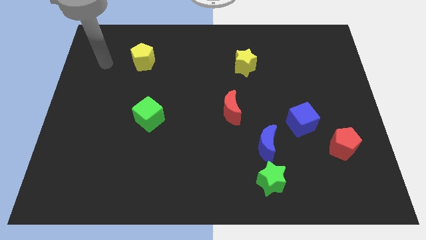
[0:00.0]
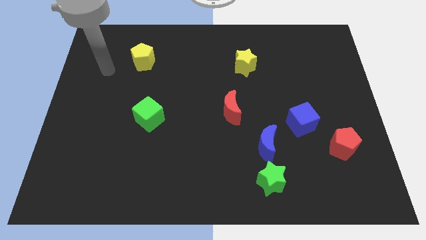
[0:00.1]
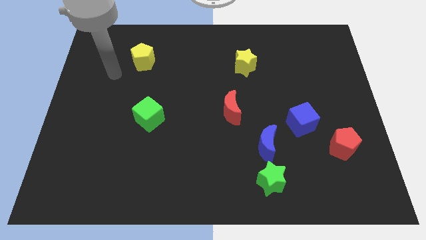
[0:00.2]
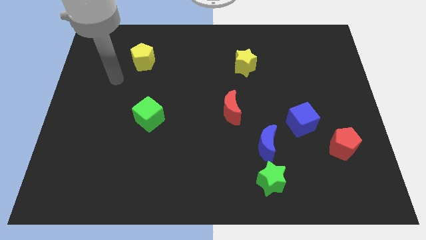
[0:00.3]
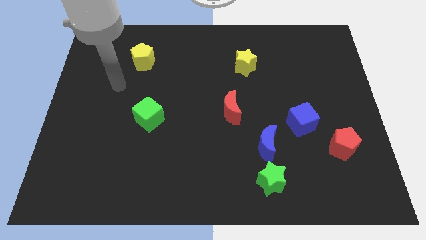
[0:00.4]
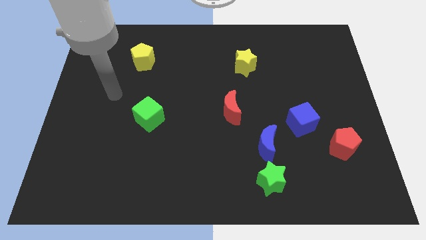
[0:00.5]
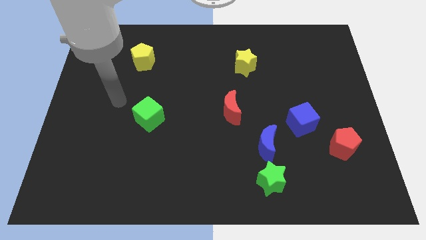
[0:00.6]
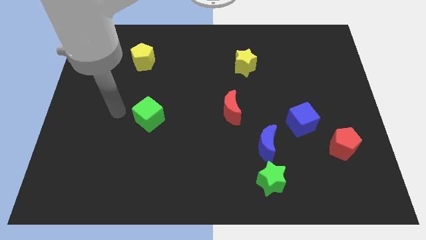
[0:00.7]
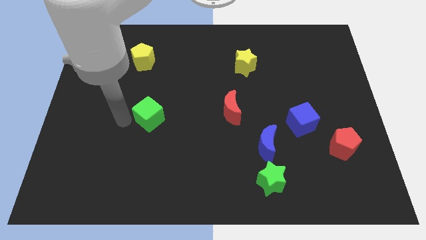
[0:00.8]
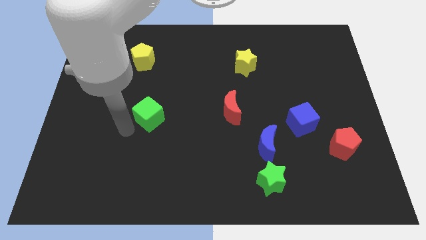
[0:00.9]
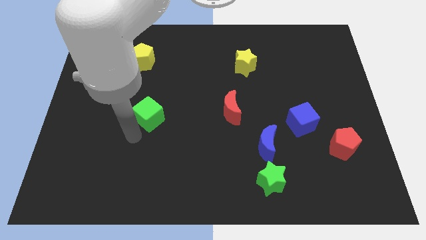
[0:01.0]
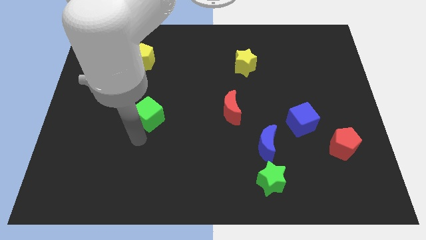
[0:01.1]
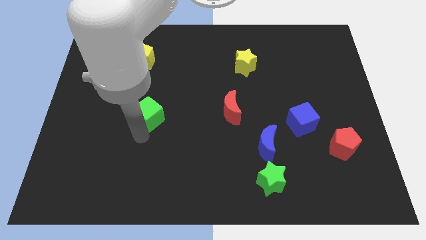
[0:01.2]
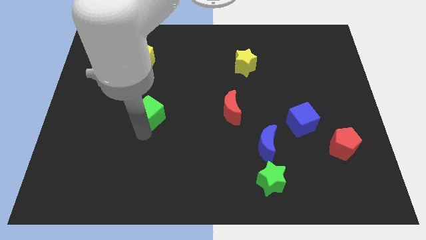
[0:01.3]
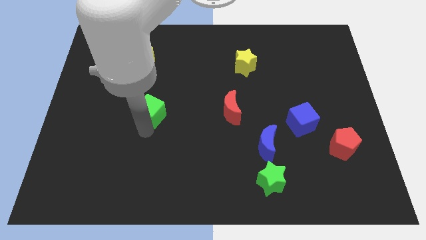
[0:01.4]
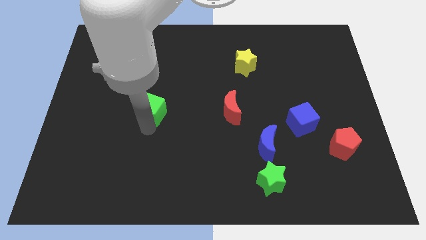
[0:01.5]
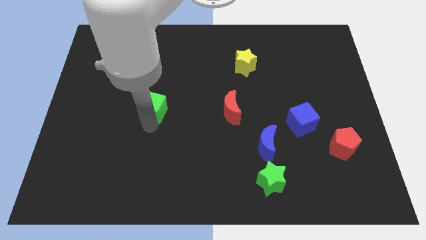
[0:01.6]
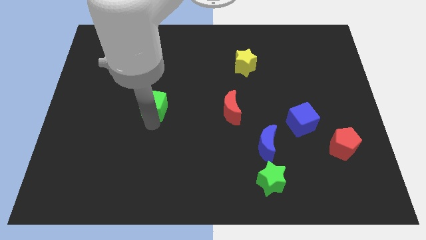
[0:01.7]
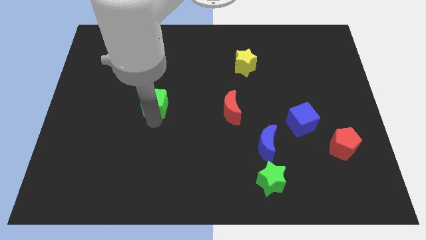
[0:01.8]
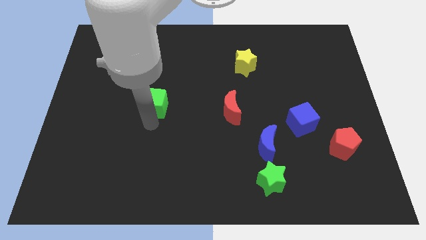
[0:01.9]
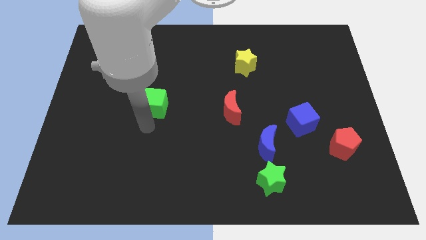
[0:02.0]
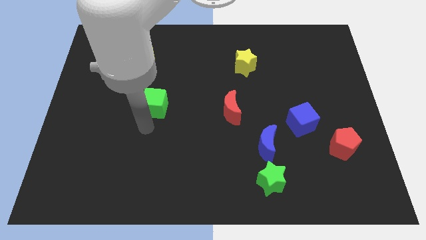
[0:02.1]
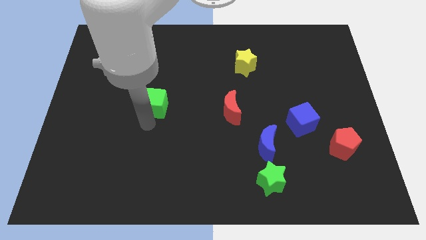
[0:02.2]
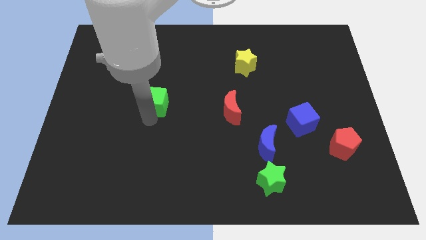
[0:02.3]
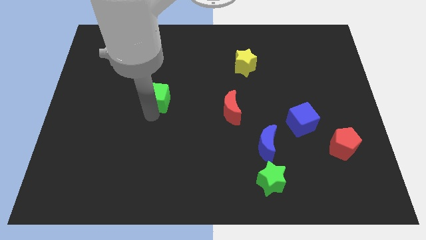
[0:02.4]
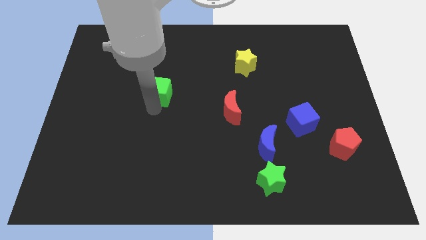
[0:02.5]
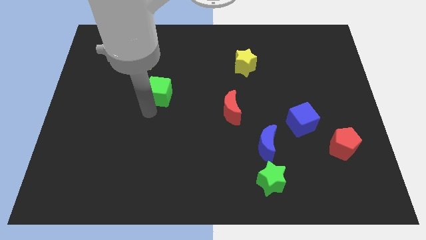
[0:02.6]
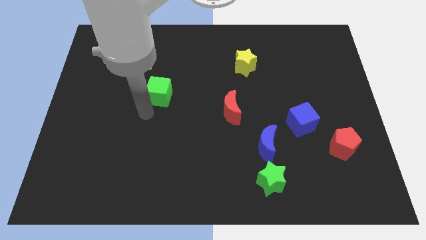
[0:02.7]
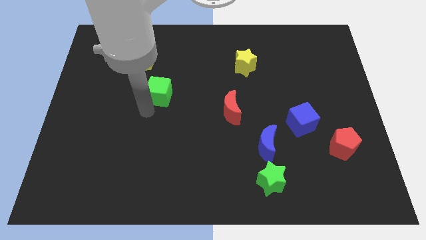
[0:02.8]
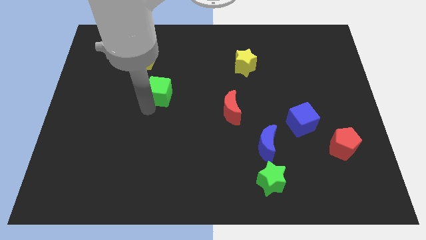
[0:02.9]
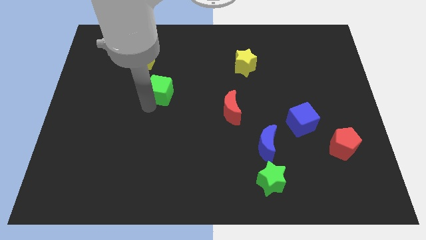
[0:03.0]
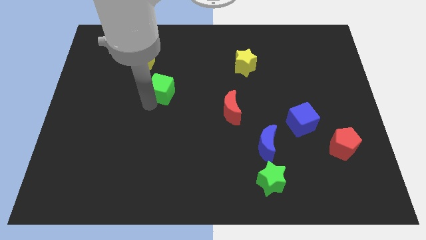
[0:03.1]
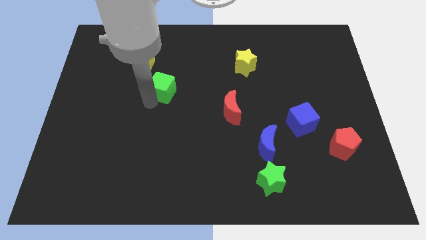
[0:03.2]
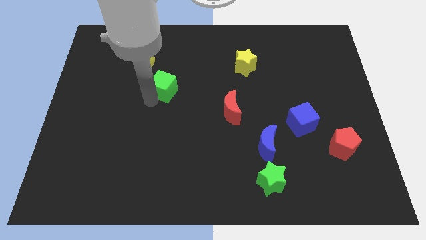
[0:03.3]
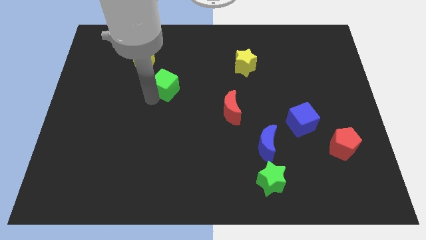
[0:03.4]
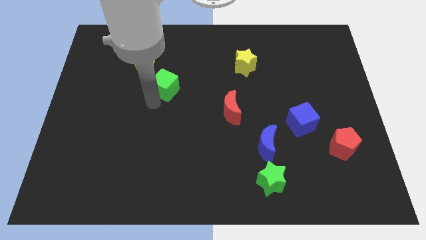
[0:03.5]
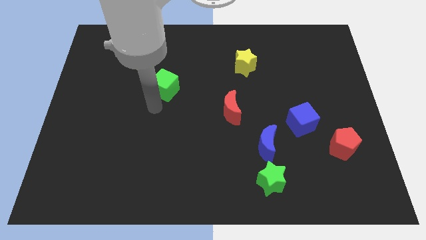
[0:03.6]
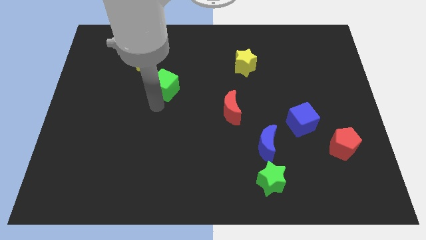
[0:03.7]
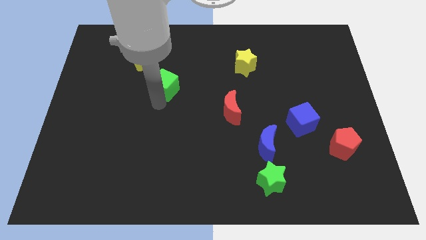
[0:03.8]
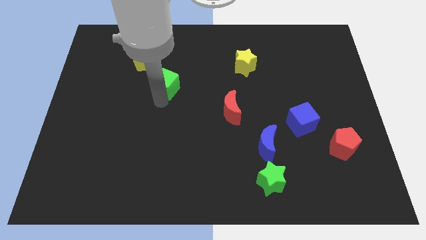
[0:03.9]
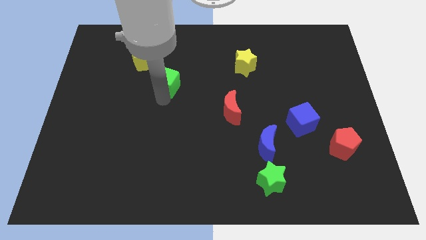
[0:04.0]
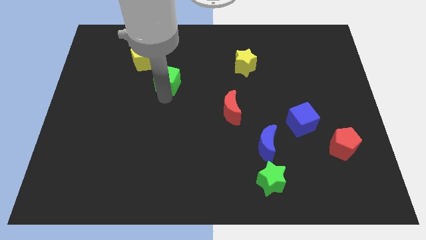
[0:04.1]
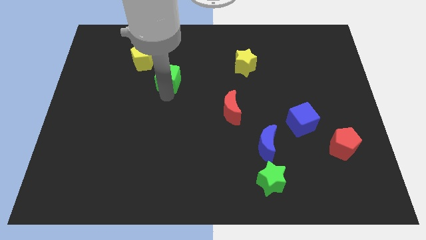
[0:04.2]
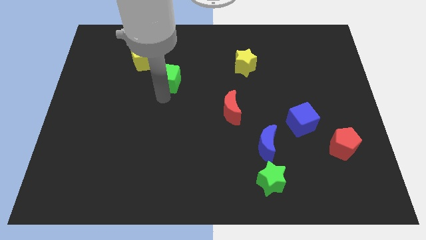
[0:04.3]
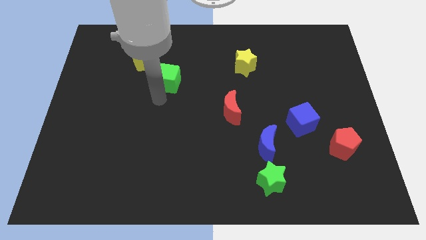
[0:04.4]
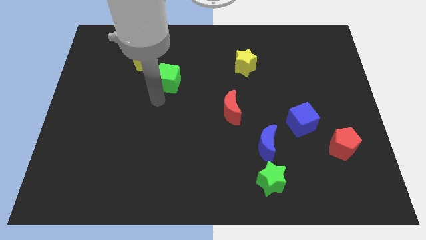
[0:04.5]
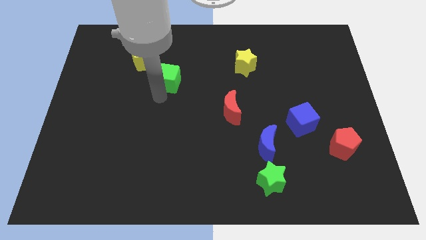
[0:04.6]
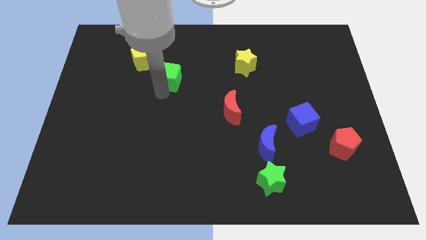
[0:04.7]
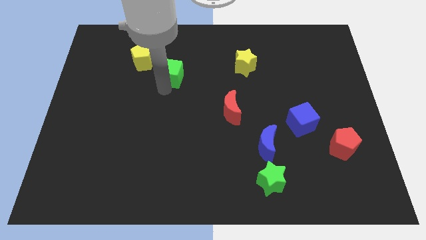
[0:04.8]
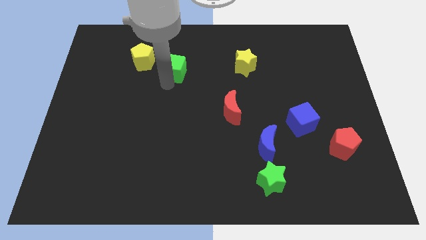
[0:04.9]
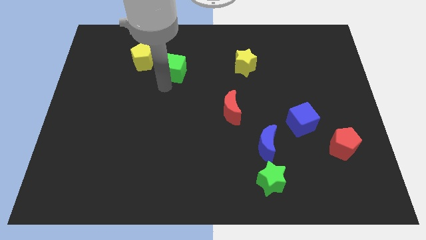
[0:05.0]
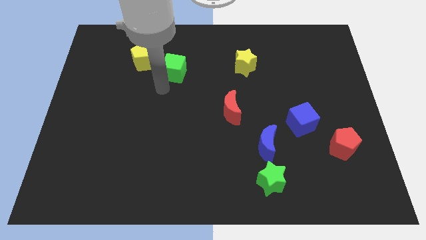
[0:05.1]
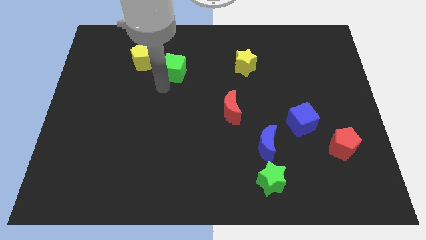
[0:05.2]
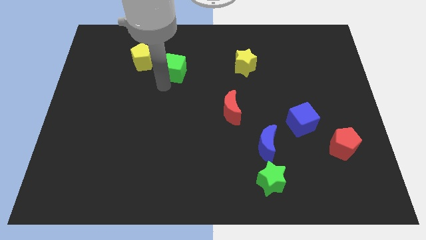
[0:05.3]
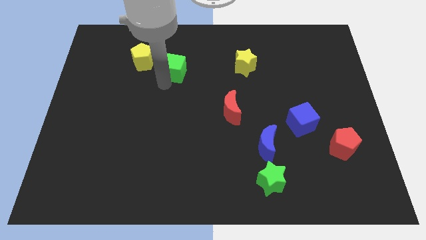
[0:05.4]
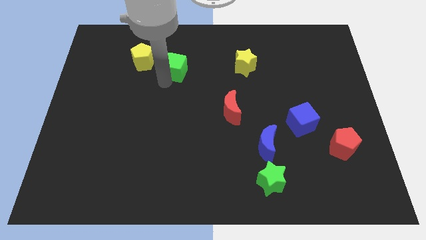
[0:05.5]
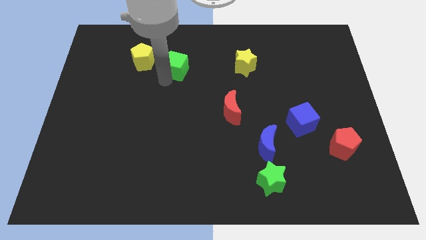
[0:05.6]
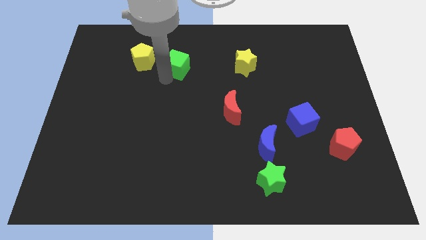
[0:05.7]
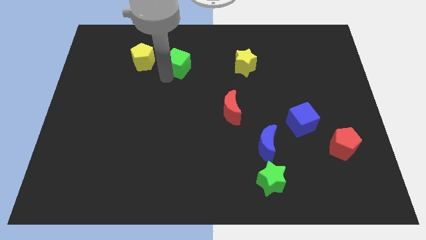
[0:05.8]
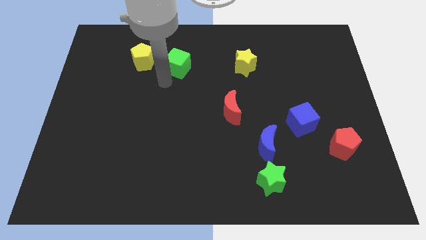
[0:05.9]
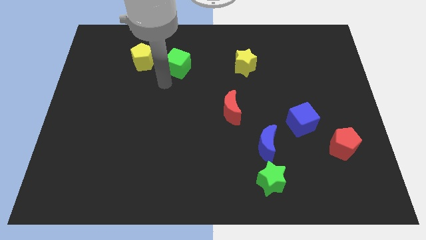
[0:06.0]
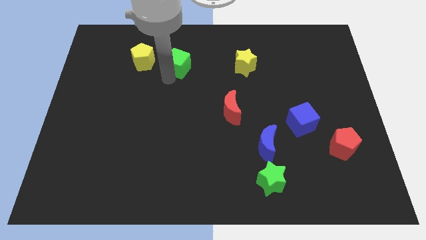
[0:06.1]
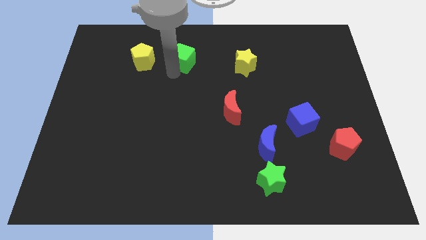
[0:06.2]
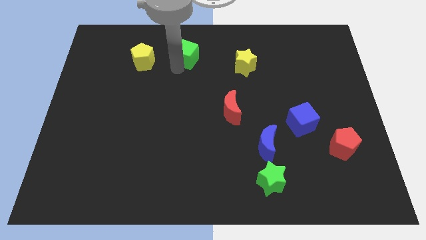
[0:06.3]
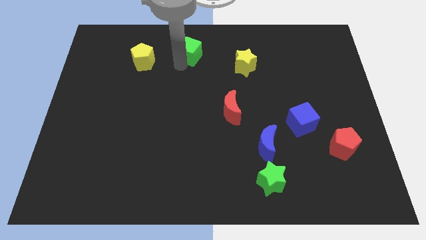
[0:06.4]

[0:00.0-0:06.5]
put the green cube to the towards your base

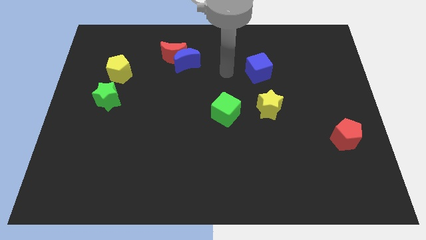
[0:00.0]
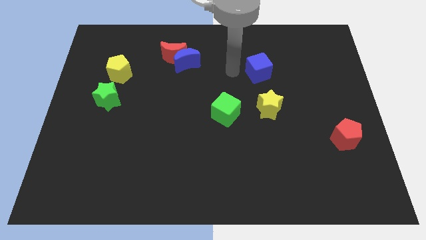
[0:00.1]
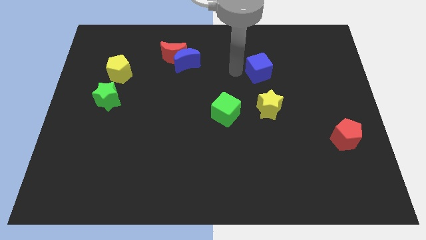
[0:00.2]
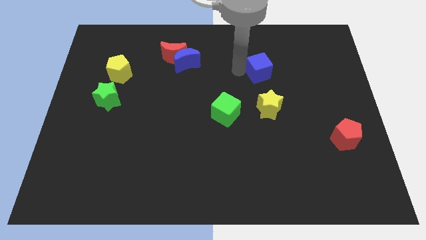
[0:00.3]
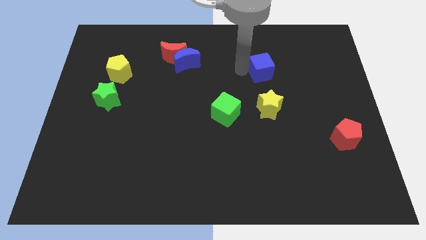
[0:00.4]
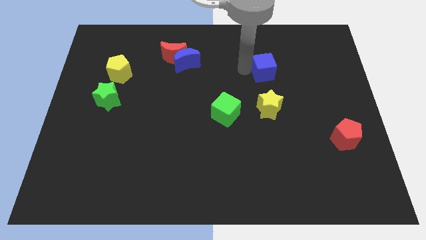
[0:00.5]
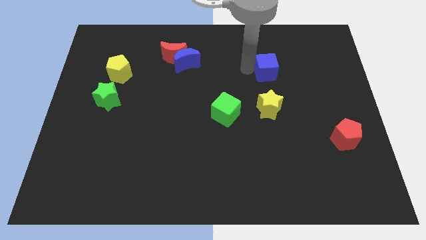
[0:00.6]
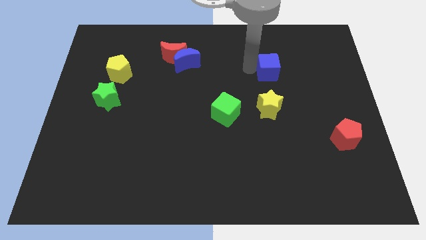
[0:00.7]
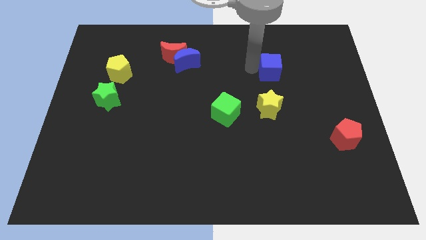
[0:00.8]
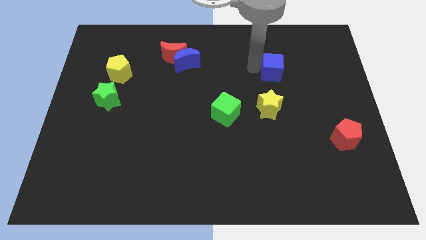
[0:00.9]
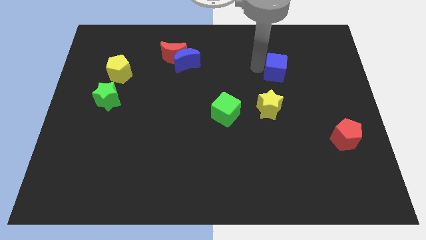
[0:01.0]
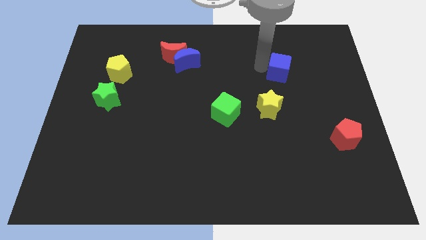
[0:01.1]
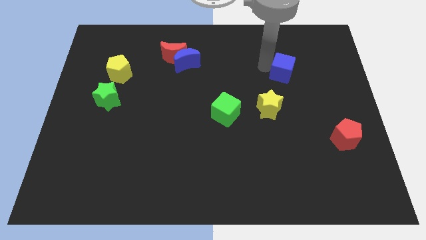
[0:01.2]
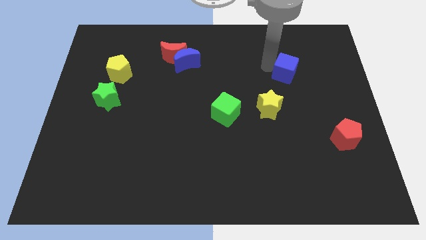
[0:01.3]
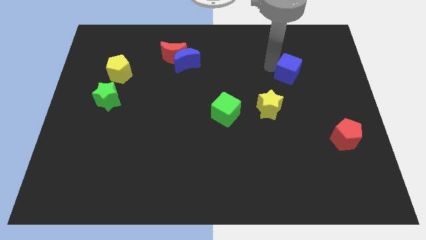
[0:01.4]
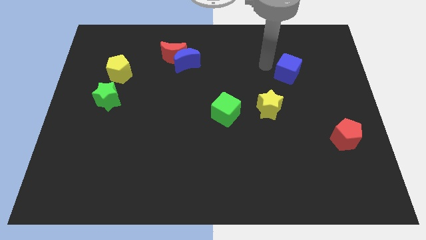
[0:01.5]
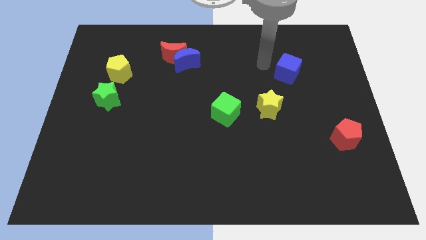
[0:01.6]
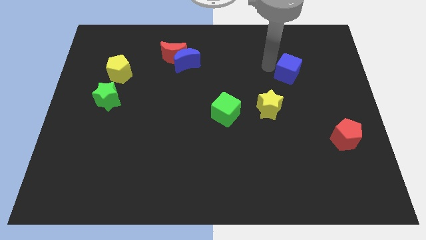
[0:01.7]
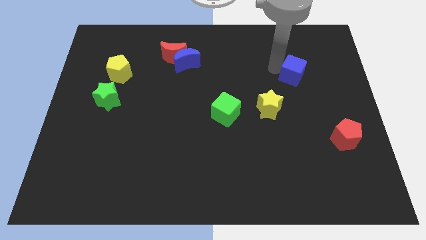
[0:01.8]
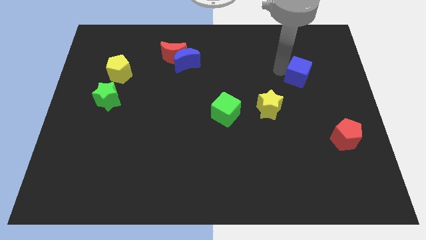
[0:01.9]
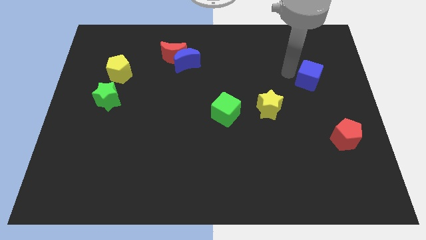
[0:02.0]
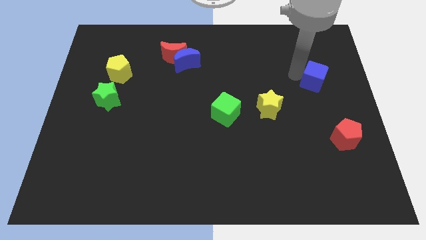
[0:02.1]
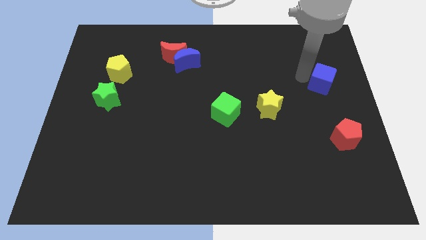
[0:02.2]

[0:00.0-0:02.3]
move the blue cube to the center right
